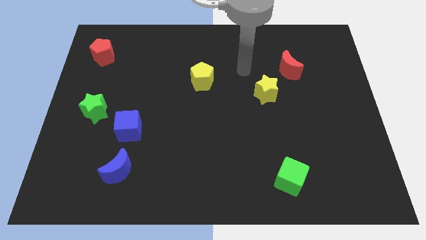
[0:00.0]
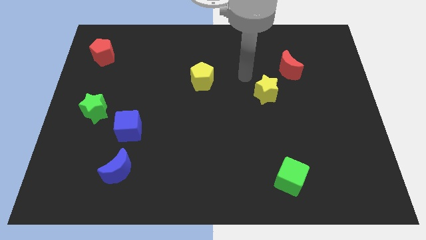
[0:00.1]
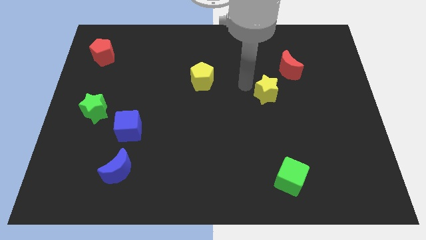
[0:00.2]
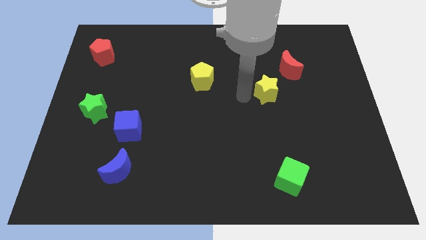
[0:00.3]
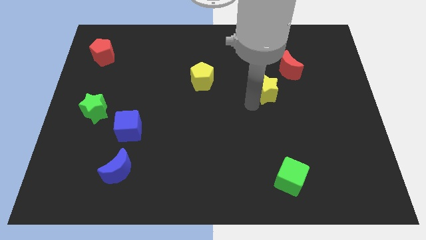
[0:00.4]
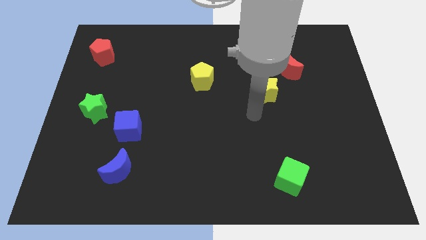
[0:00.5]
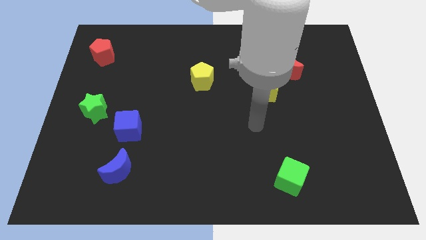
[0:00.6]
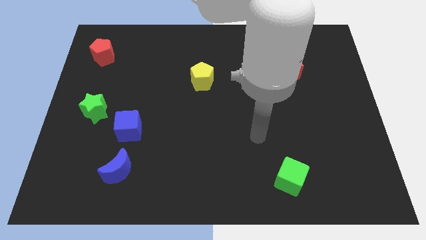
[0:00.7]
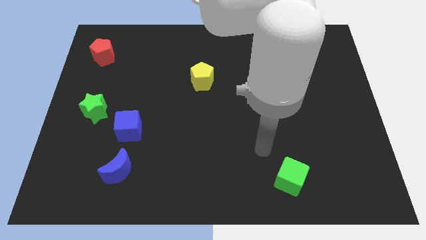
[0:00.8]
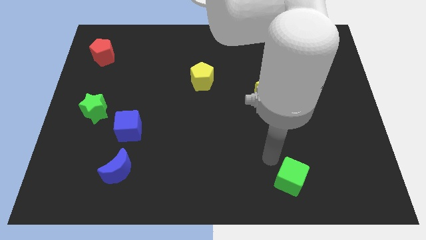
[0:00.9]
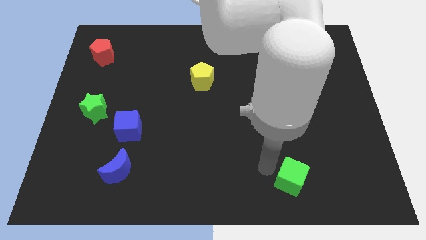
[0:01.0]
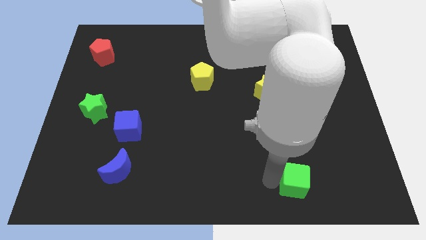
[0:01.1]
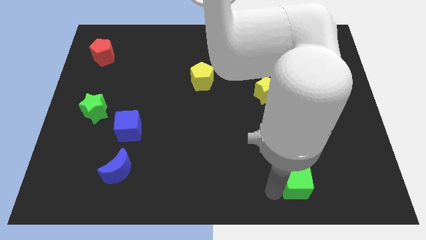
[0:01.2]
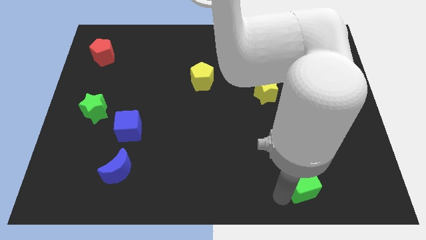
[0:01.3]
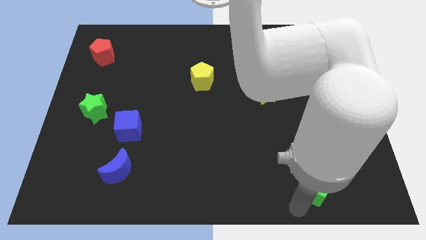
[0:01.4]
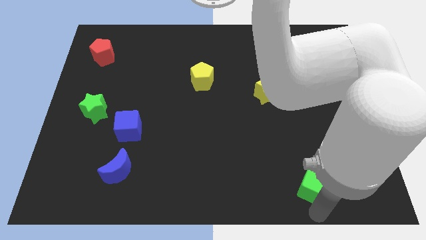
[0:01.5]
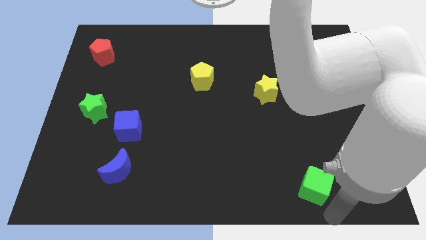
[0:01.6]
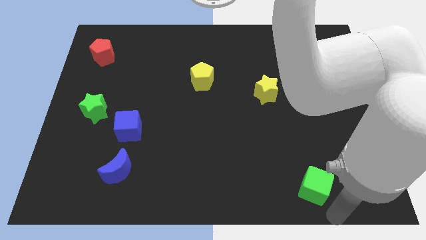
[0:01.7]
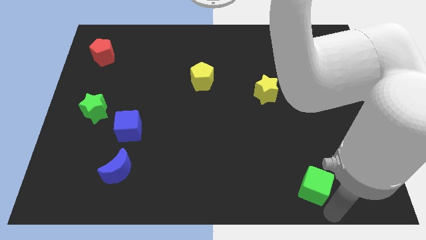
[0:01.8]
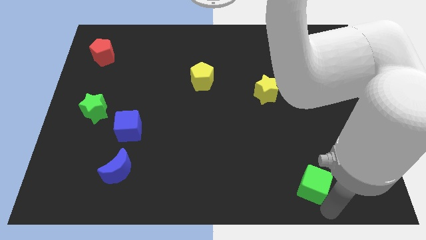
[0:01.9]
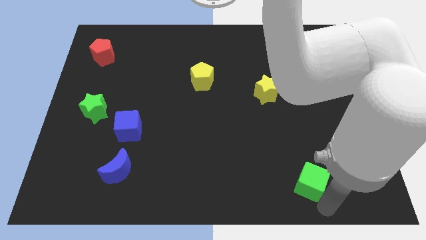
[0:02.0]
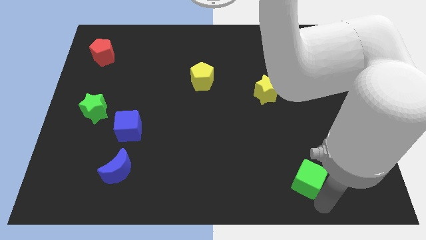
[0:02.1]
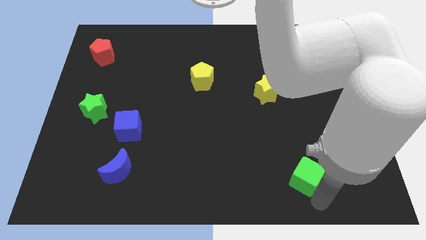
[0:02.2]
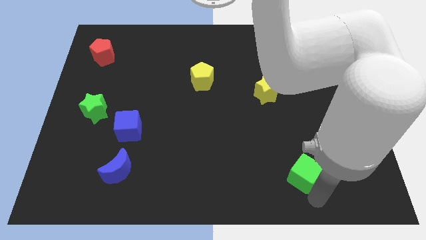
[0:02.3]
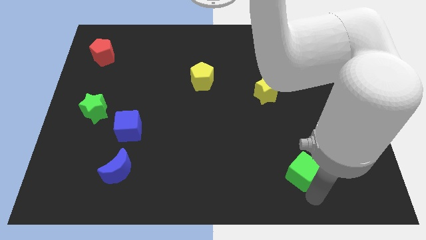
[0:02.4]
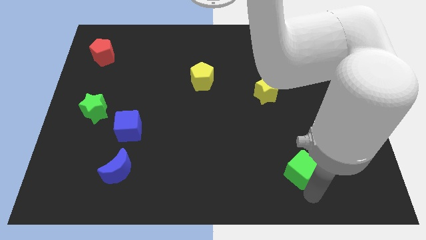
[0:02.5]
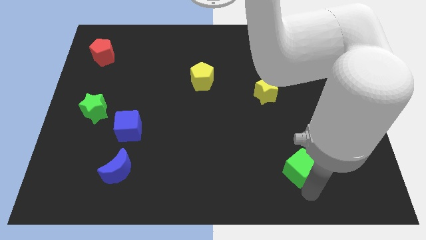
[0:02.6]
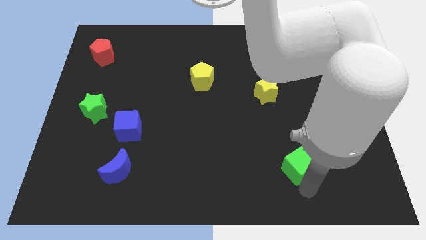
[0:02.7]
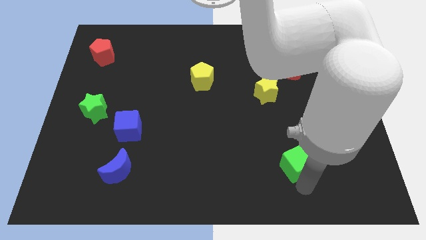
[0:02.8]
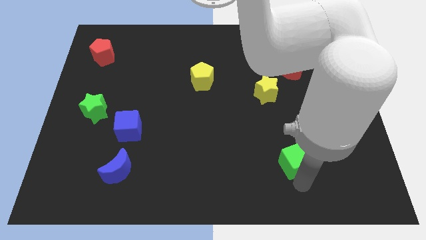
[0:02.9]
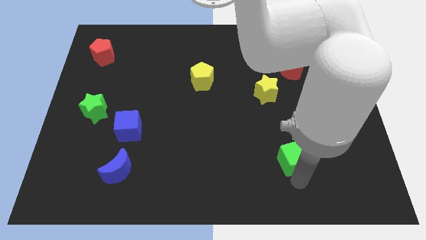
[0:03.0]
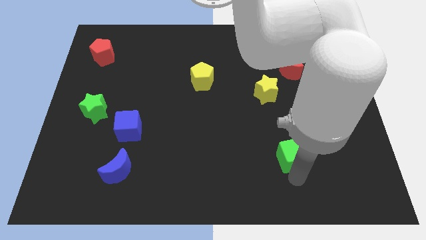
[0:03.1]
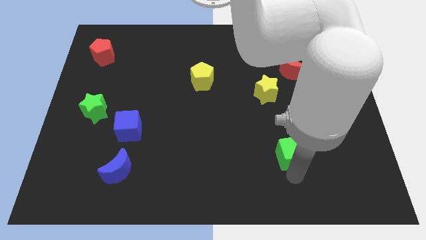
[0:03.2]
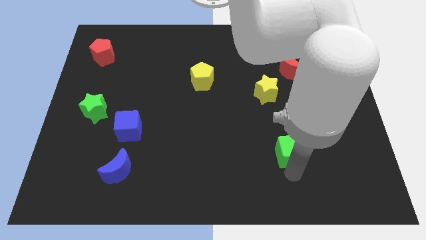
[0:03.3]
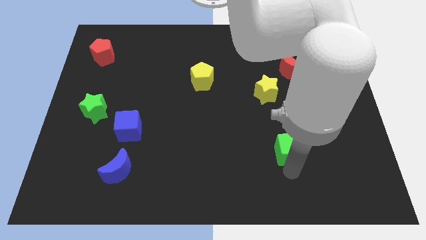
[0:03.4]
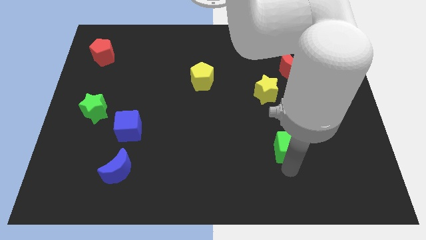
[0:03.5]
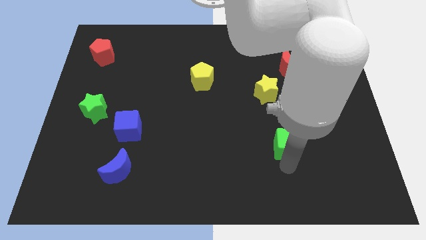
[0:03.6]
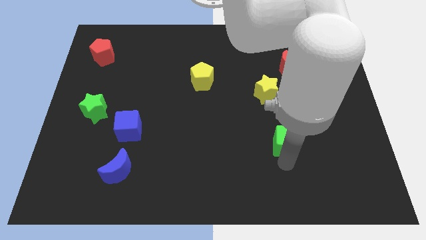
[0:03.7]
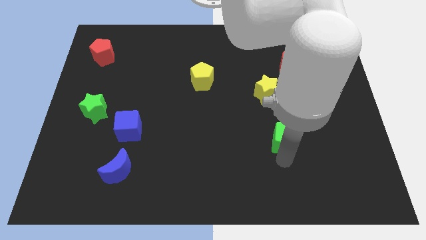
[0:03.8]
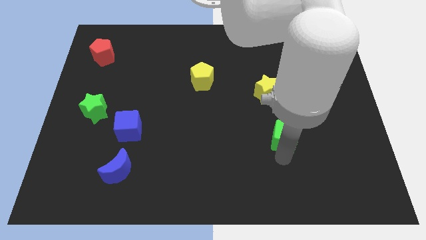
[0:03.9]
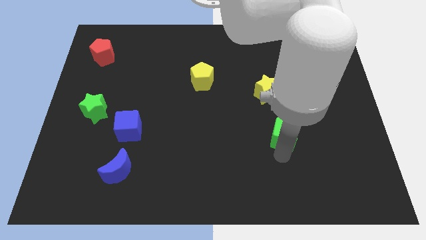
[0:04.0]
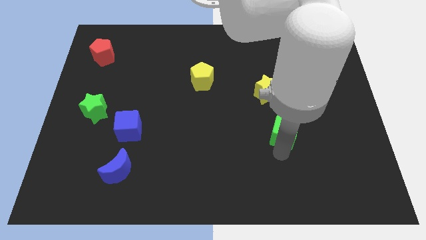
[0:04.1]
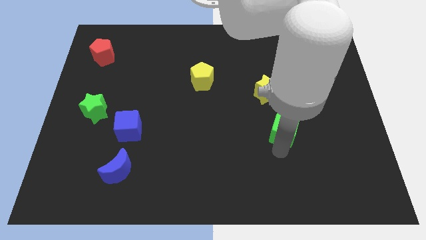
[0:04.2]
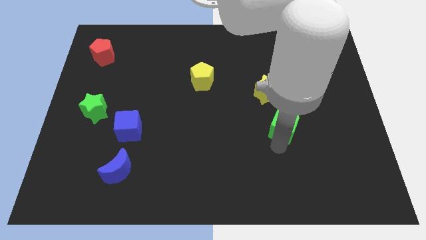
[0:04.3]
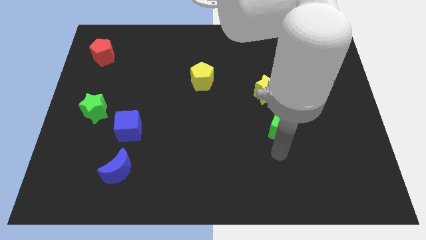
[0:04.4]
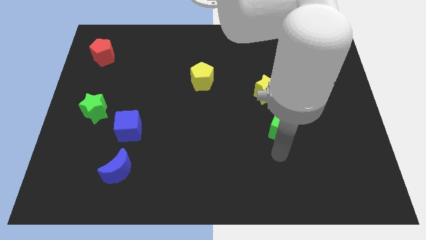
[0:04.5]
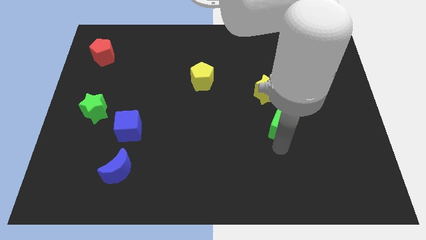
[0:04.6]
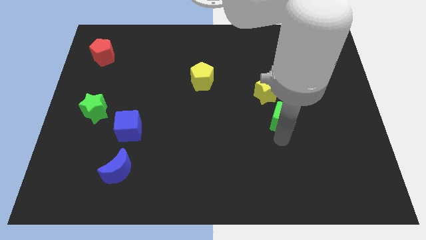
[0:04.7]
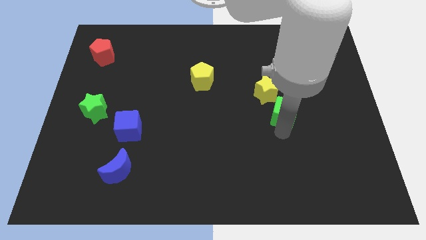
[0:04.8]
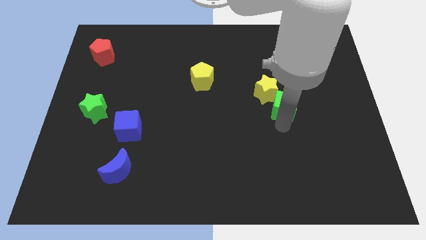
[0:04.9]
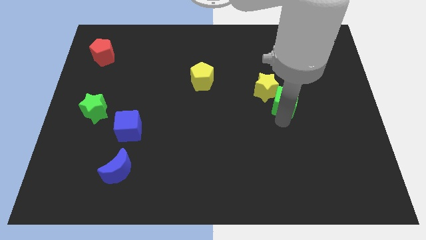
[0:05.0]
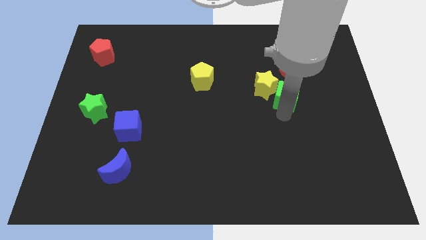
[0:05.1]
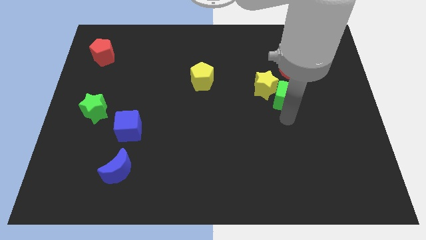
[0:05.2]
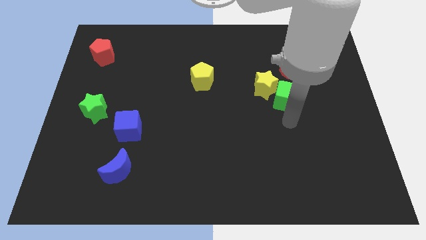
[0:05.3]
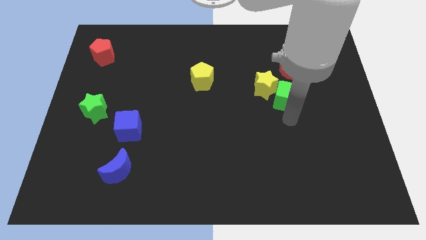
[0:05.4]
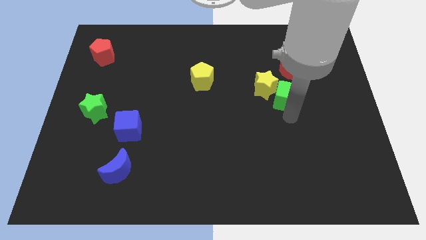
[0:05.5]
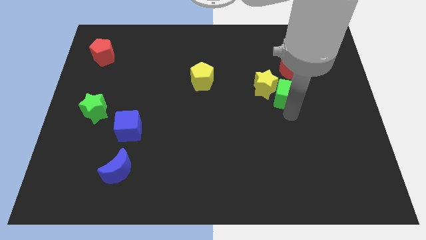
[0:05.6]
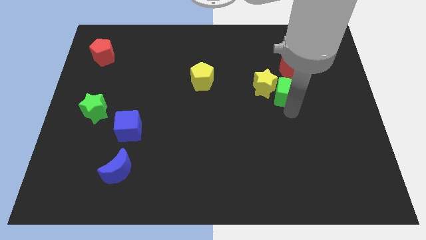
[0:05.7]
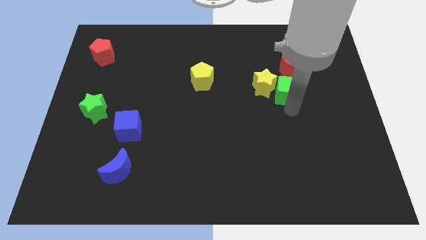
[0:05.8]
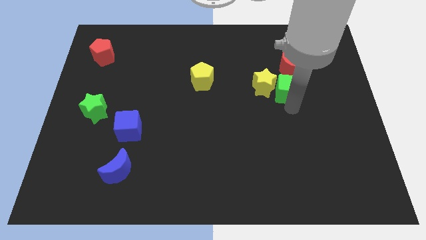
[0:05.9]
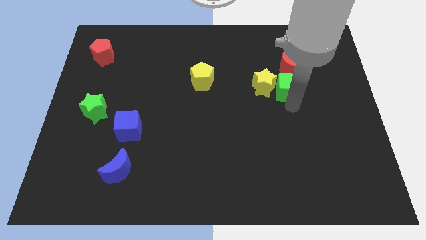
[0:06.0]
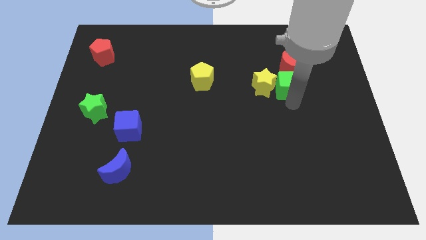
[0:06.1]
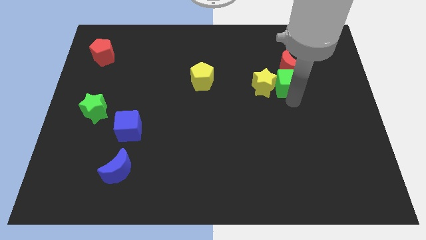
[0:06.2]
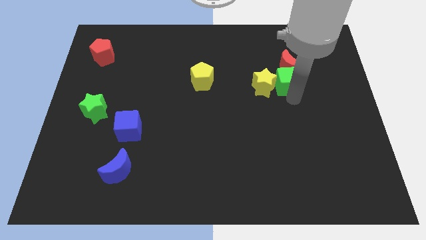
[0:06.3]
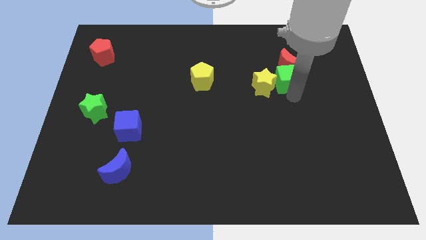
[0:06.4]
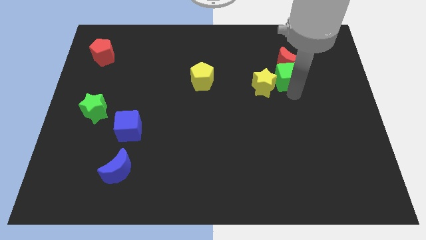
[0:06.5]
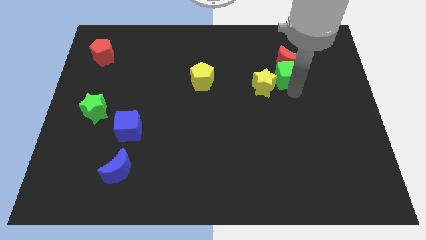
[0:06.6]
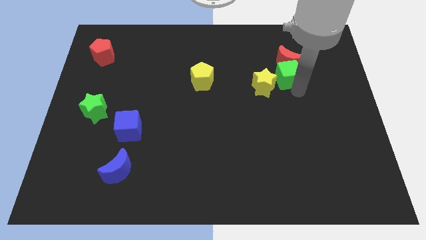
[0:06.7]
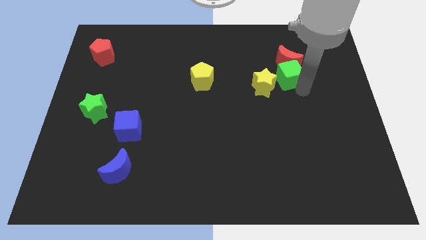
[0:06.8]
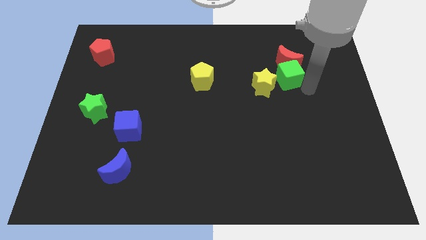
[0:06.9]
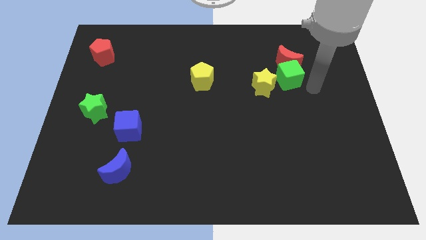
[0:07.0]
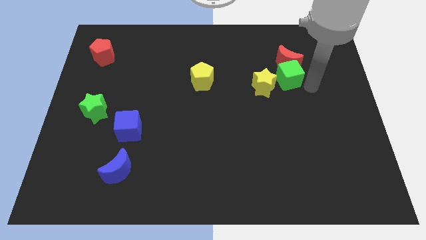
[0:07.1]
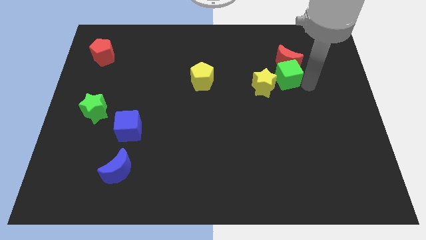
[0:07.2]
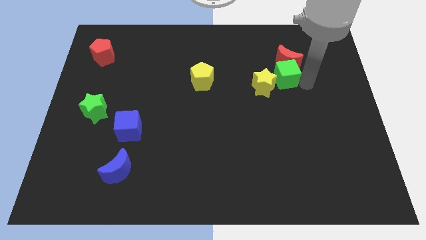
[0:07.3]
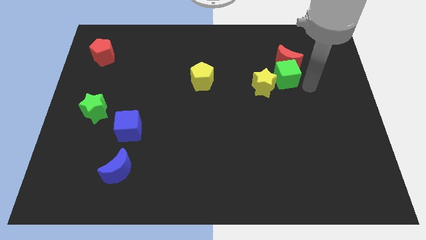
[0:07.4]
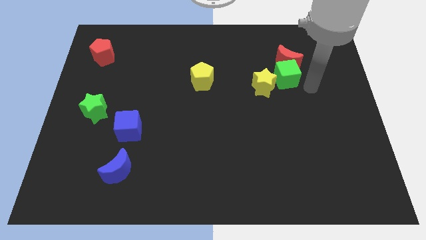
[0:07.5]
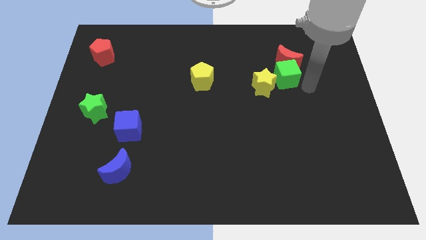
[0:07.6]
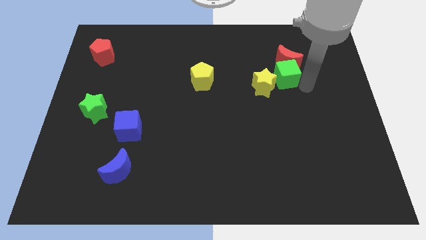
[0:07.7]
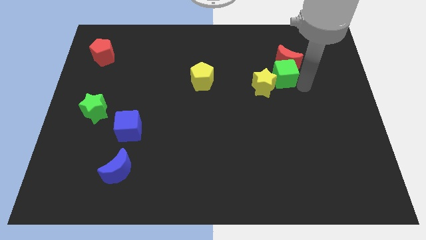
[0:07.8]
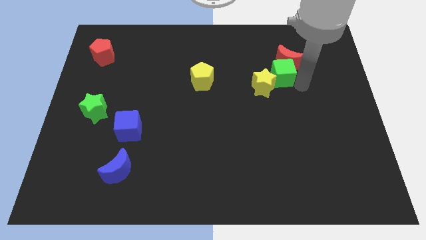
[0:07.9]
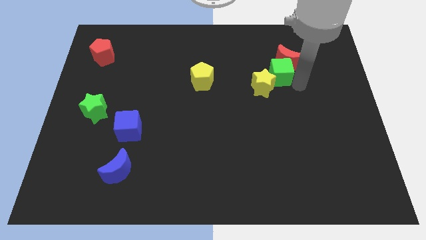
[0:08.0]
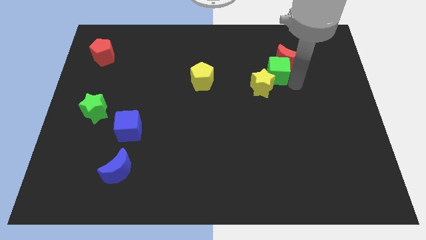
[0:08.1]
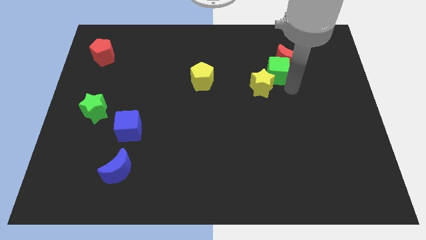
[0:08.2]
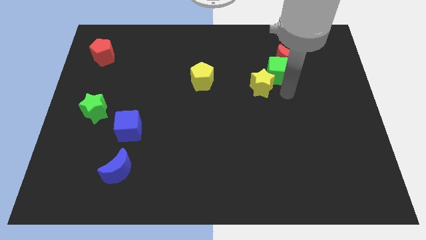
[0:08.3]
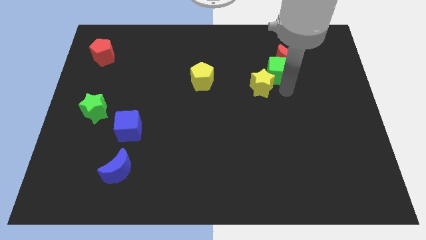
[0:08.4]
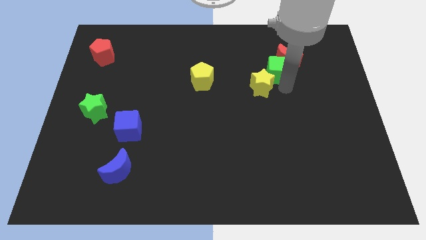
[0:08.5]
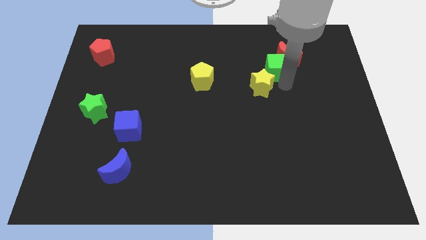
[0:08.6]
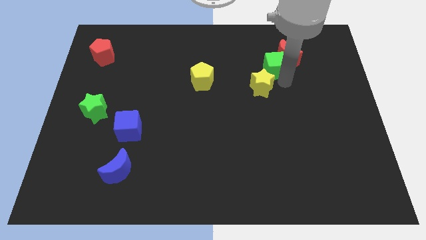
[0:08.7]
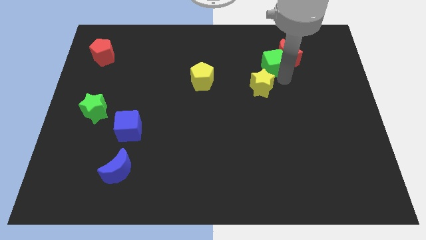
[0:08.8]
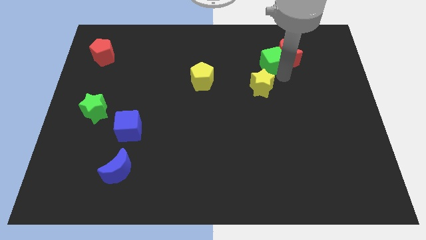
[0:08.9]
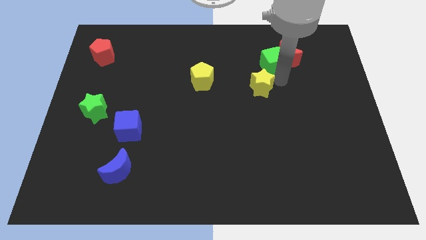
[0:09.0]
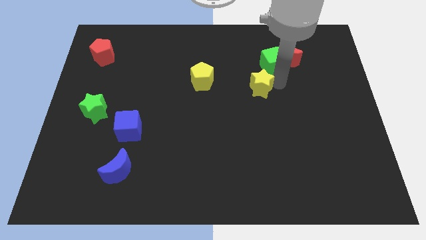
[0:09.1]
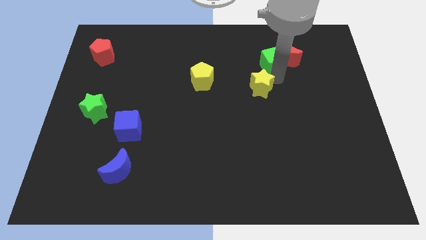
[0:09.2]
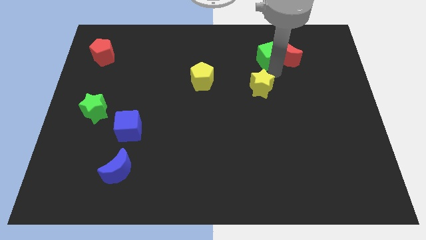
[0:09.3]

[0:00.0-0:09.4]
push the green cube diagonally up and to the left of the red moon
